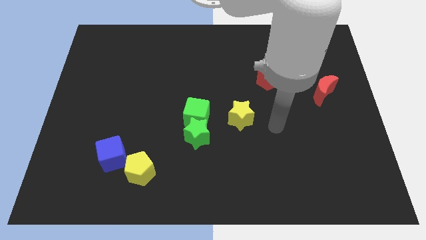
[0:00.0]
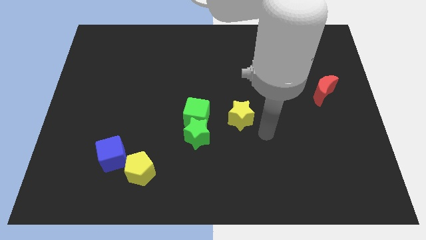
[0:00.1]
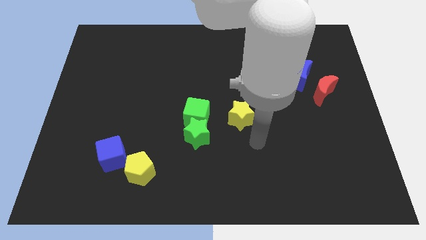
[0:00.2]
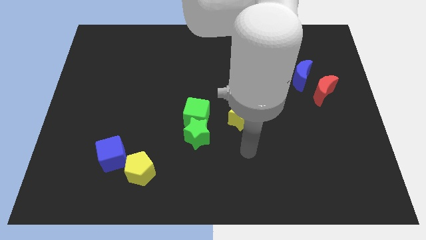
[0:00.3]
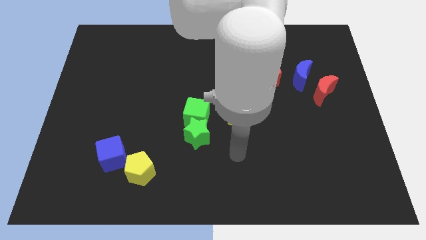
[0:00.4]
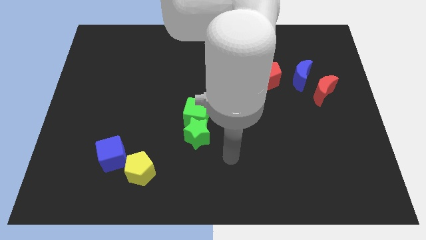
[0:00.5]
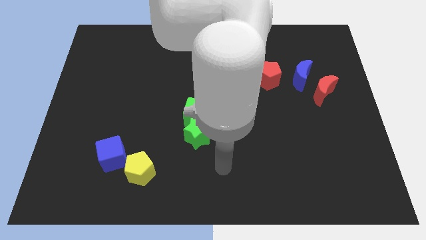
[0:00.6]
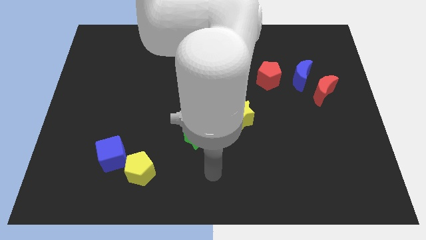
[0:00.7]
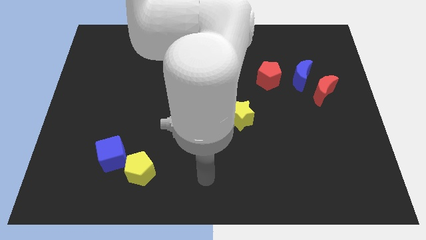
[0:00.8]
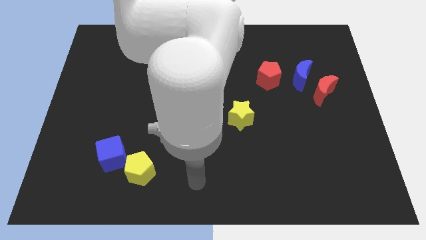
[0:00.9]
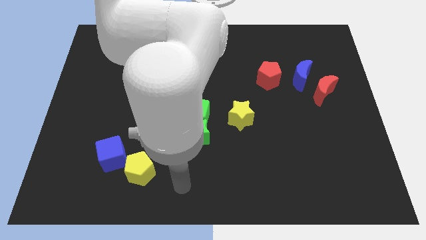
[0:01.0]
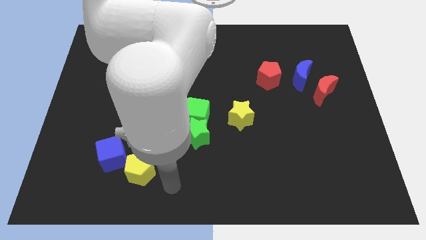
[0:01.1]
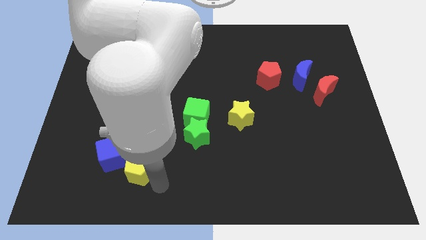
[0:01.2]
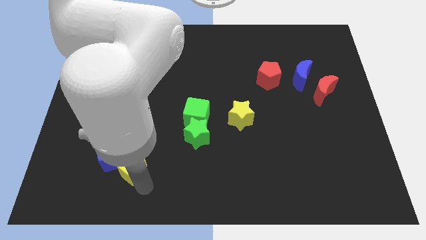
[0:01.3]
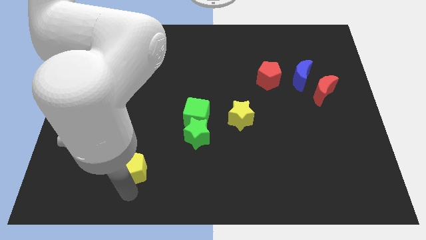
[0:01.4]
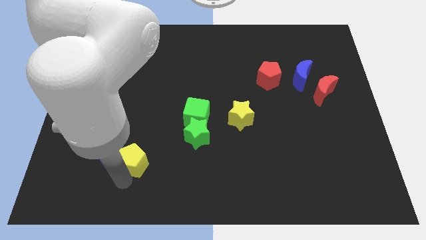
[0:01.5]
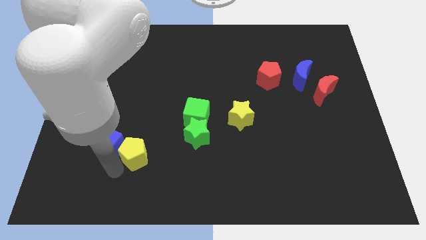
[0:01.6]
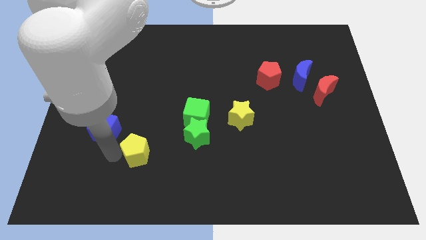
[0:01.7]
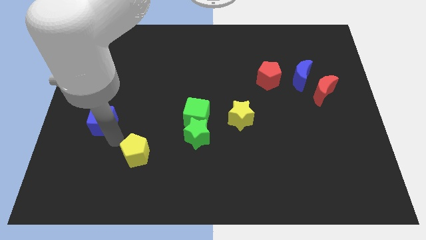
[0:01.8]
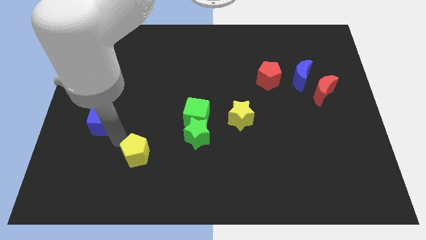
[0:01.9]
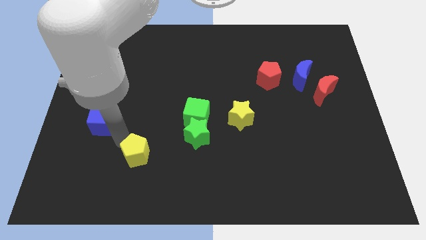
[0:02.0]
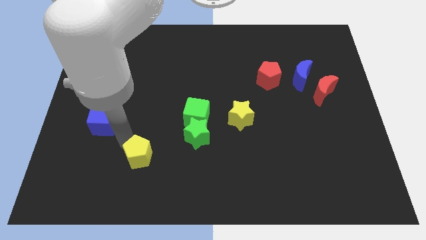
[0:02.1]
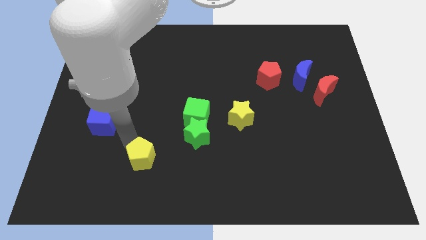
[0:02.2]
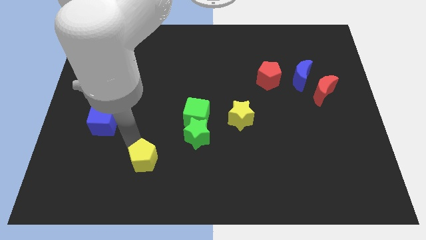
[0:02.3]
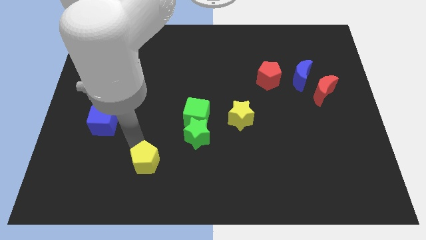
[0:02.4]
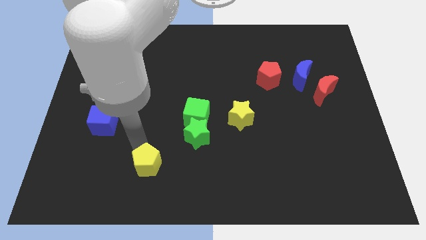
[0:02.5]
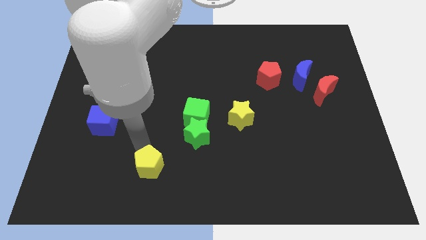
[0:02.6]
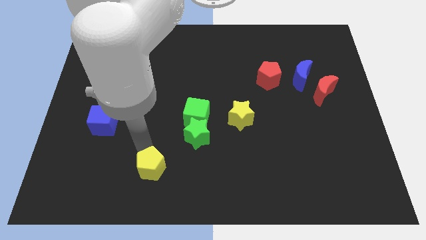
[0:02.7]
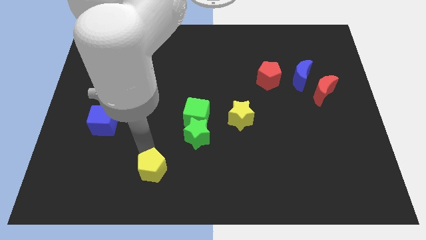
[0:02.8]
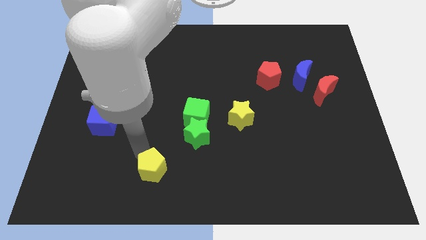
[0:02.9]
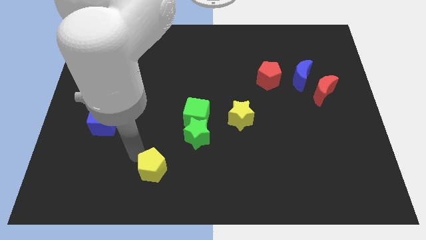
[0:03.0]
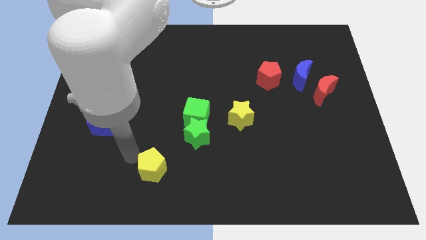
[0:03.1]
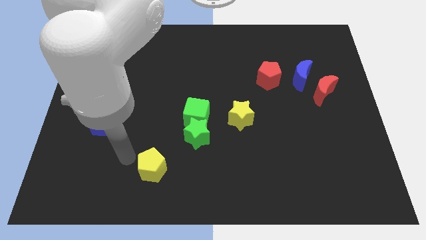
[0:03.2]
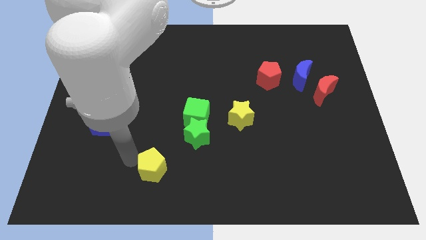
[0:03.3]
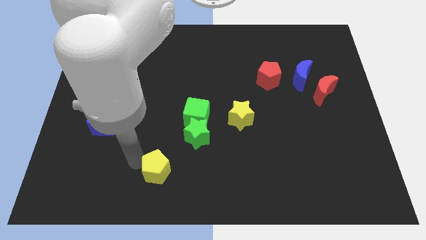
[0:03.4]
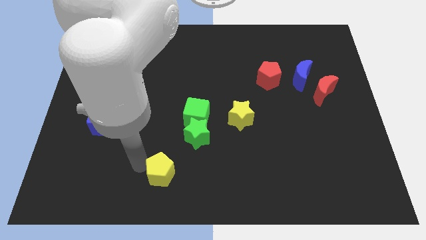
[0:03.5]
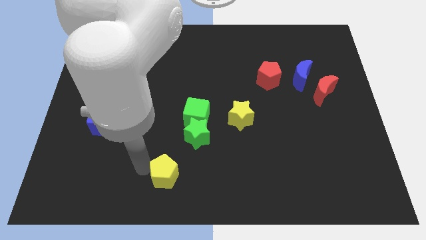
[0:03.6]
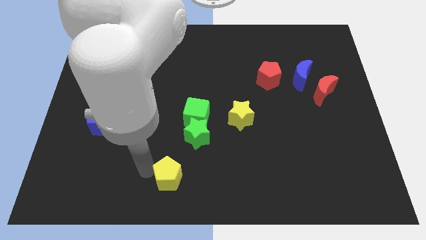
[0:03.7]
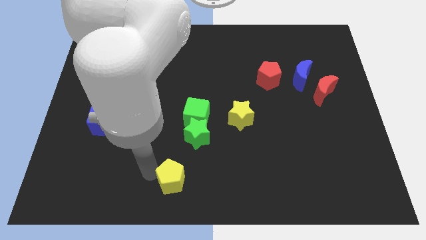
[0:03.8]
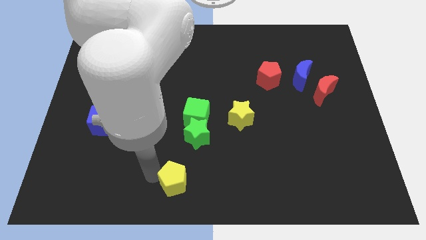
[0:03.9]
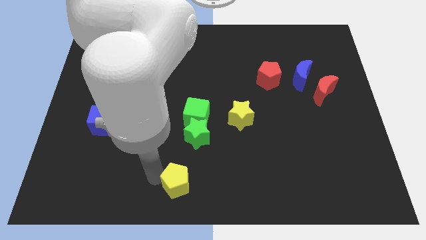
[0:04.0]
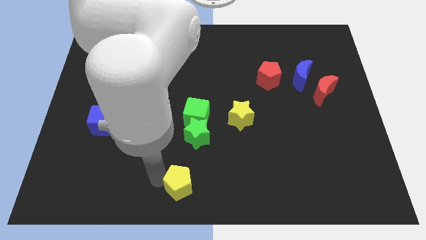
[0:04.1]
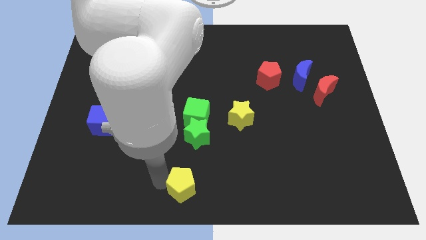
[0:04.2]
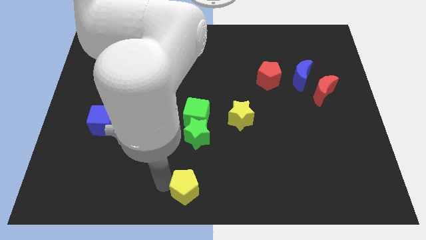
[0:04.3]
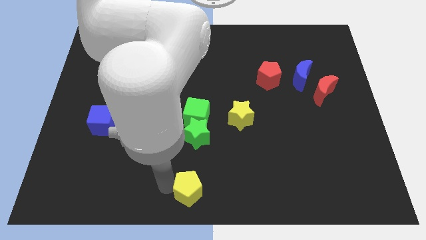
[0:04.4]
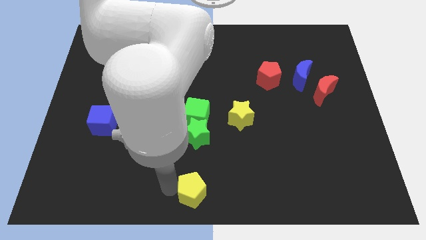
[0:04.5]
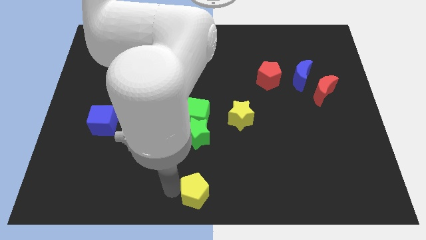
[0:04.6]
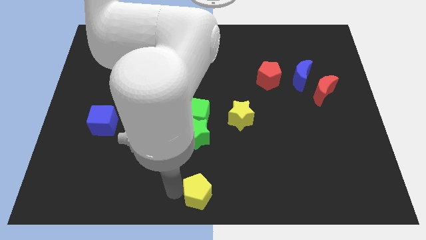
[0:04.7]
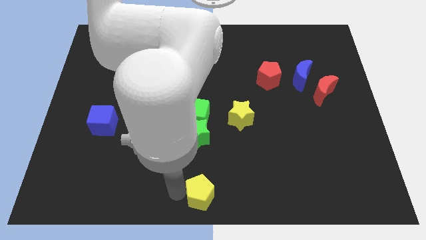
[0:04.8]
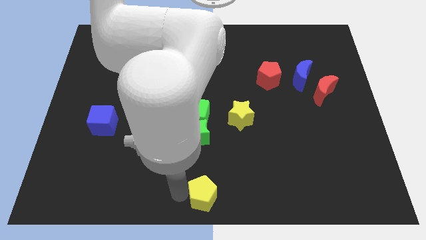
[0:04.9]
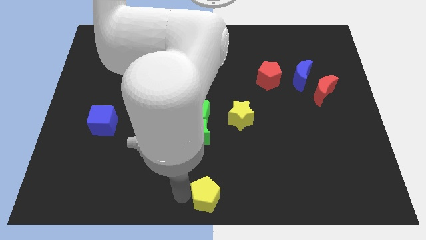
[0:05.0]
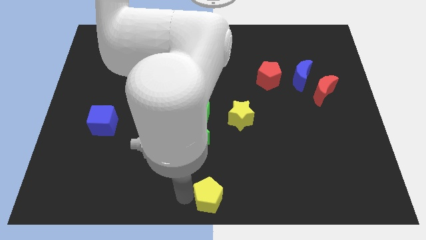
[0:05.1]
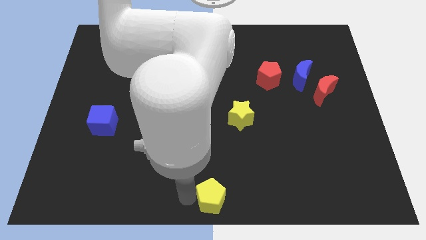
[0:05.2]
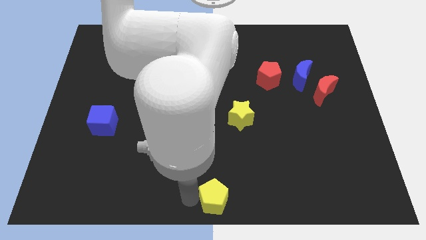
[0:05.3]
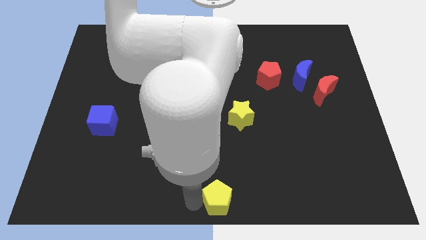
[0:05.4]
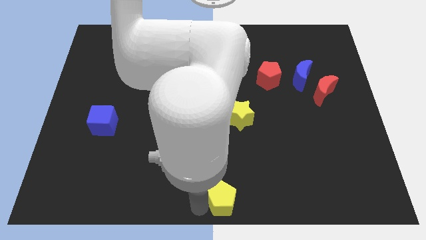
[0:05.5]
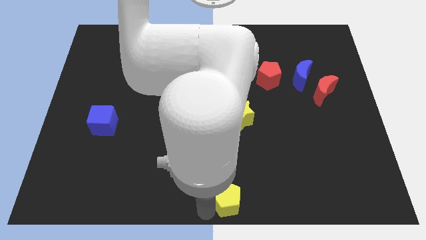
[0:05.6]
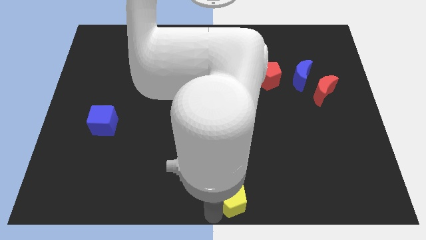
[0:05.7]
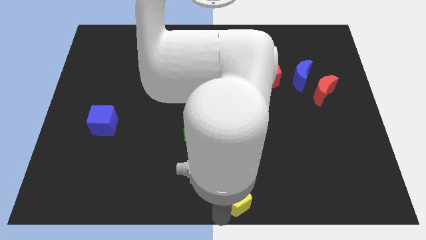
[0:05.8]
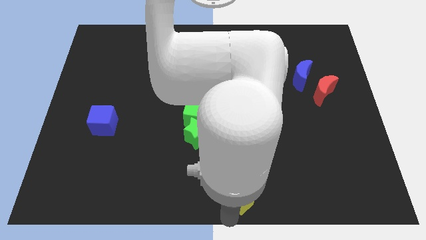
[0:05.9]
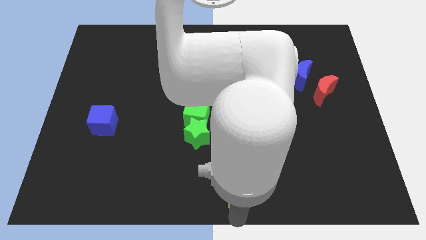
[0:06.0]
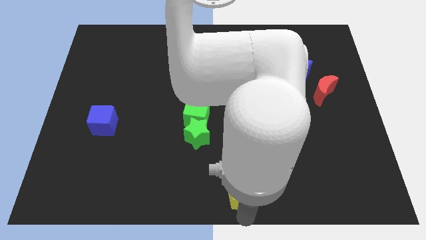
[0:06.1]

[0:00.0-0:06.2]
move the yellow pentagon right

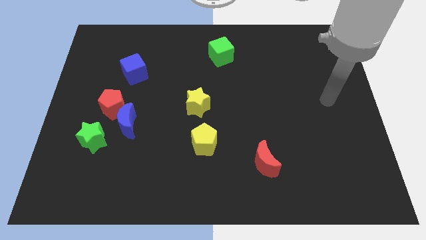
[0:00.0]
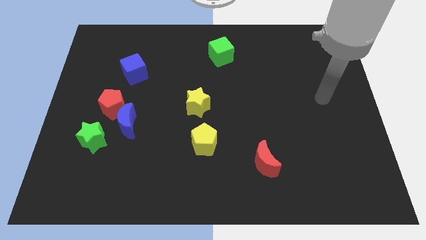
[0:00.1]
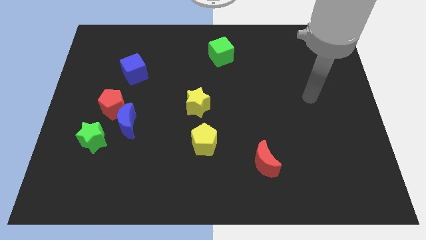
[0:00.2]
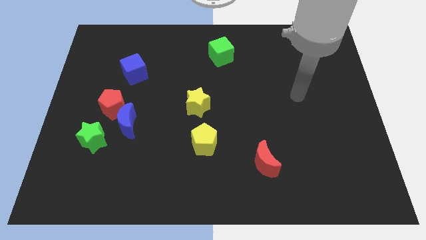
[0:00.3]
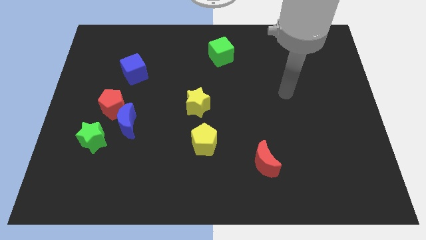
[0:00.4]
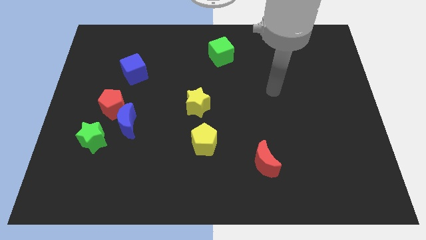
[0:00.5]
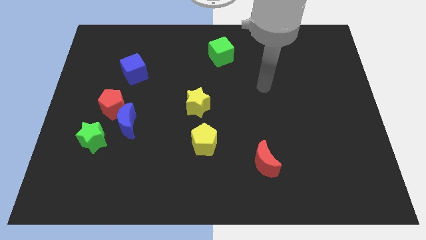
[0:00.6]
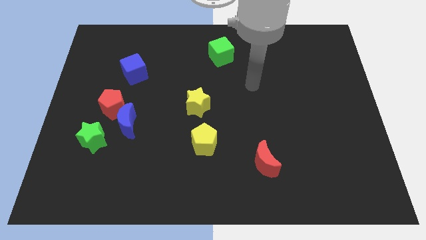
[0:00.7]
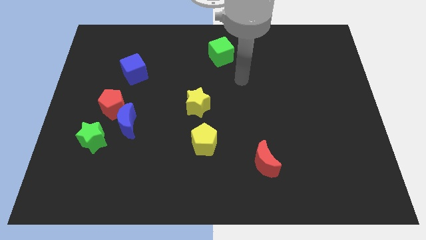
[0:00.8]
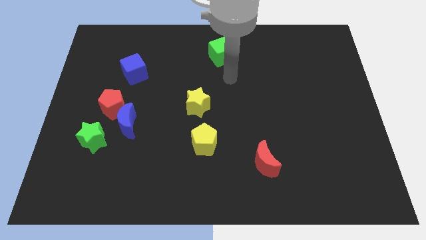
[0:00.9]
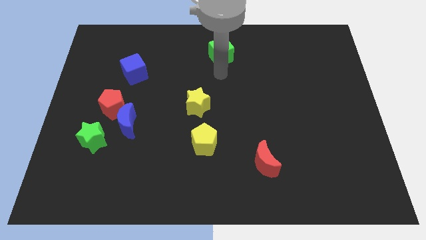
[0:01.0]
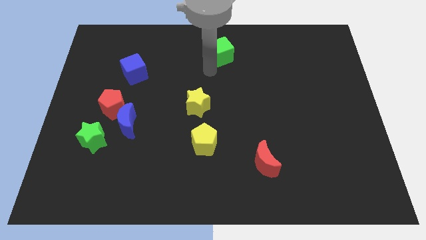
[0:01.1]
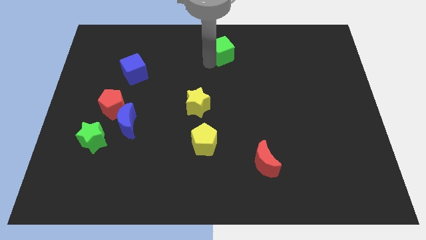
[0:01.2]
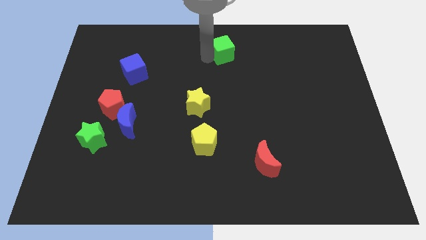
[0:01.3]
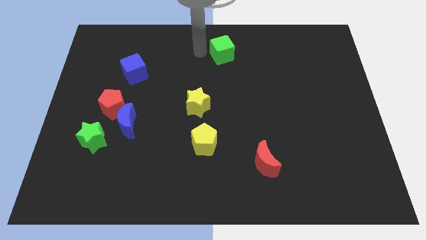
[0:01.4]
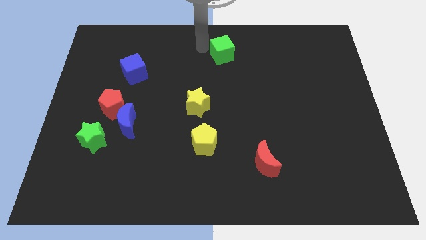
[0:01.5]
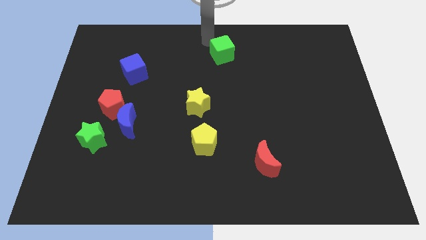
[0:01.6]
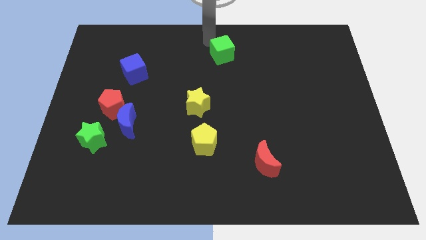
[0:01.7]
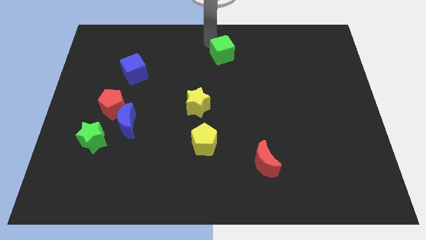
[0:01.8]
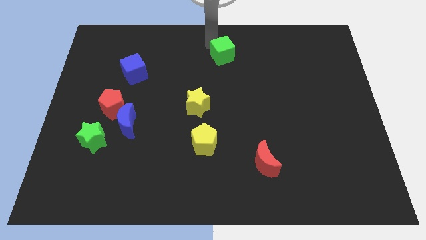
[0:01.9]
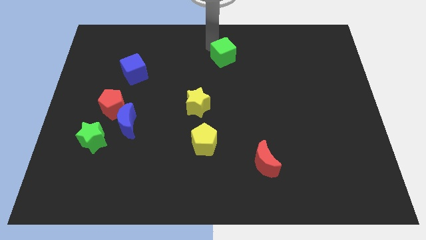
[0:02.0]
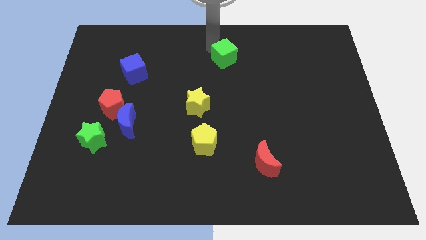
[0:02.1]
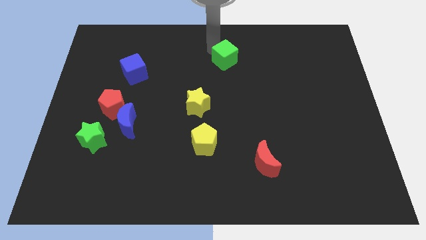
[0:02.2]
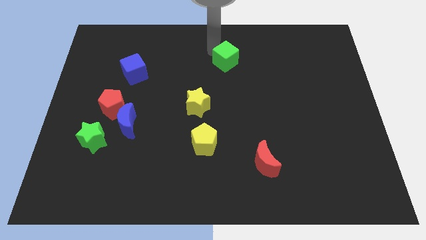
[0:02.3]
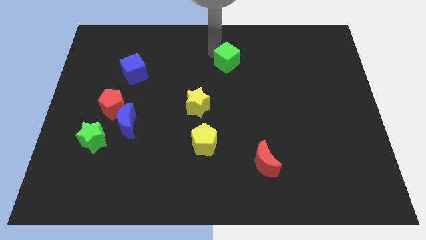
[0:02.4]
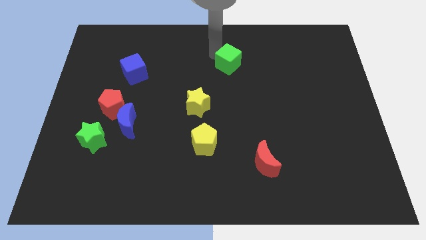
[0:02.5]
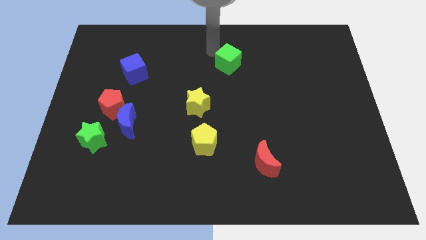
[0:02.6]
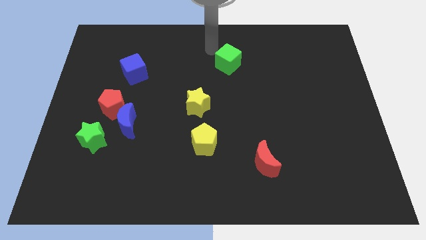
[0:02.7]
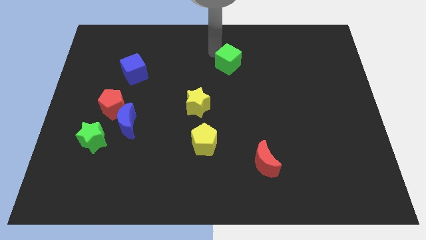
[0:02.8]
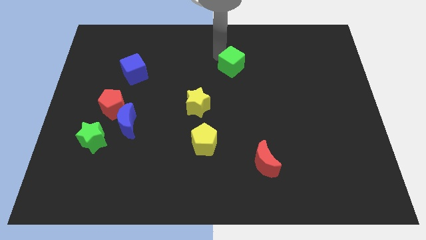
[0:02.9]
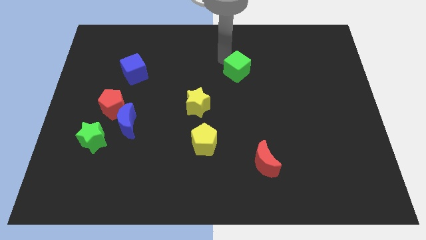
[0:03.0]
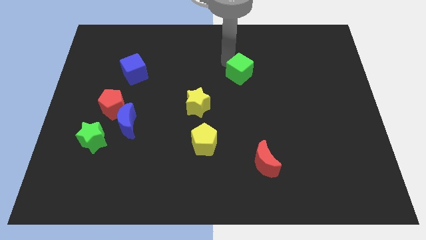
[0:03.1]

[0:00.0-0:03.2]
slightly slide the green cube down and then right
